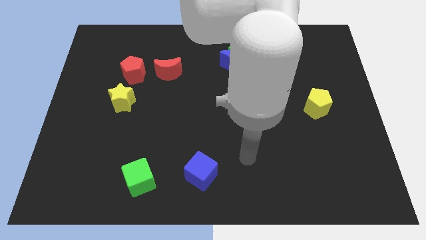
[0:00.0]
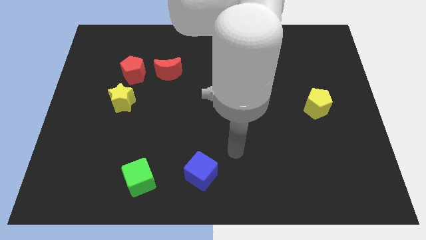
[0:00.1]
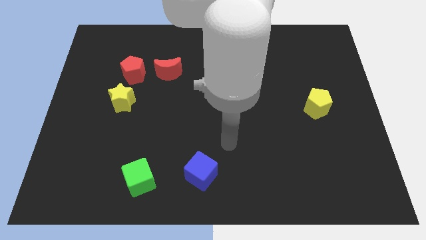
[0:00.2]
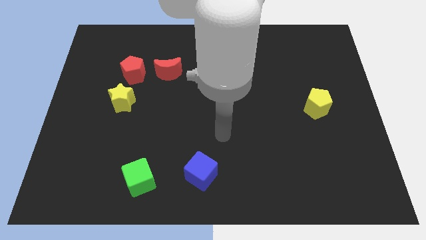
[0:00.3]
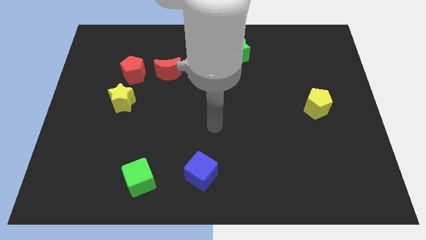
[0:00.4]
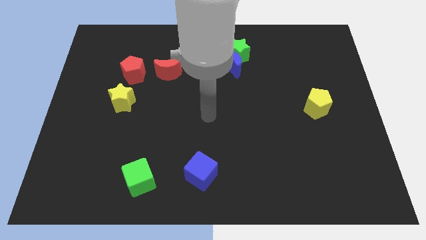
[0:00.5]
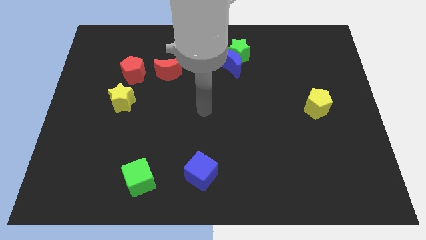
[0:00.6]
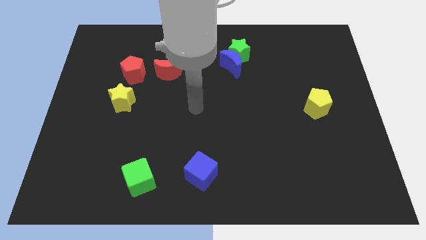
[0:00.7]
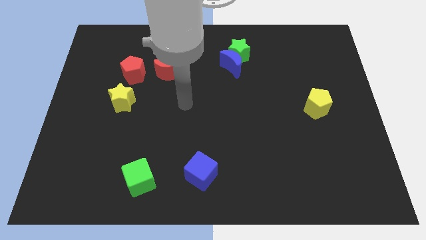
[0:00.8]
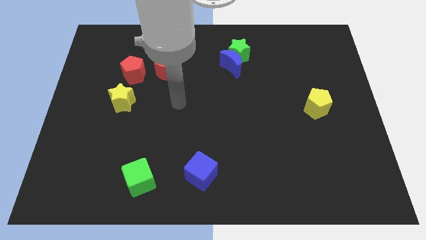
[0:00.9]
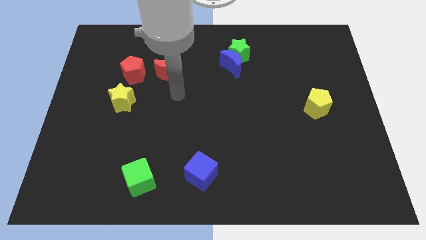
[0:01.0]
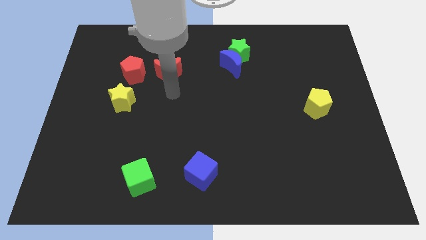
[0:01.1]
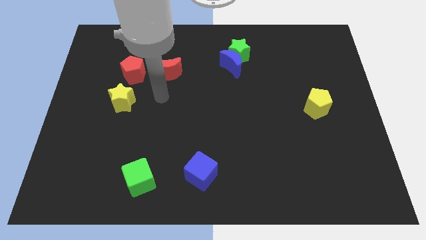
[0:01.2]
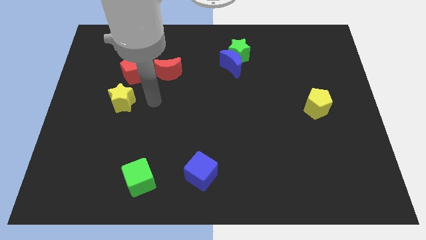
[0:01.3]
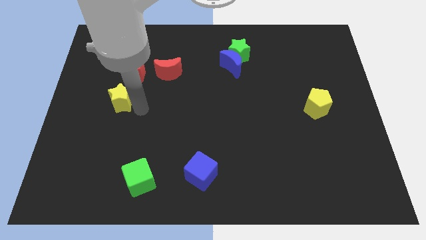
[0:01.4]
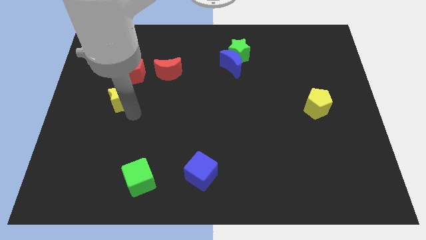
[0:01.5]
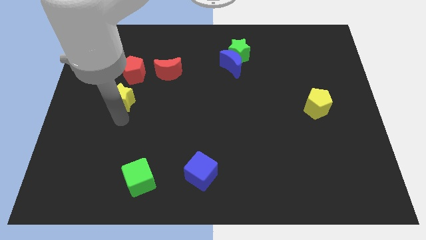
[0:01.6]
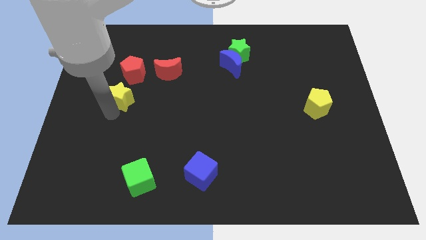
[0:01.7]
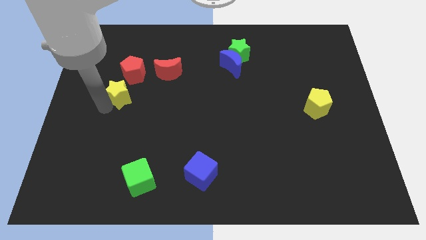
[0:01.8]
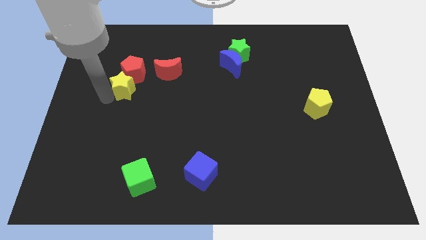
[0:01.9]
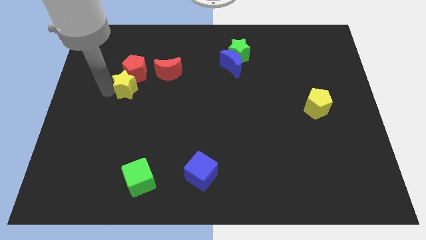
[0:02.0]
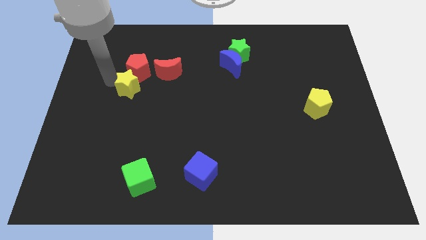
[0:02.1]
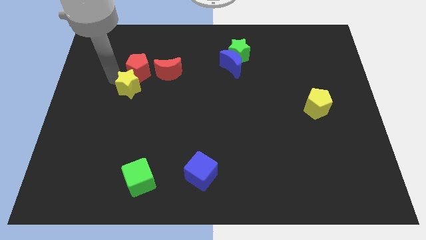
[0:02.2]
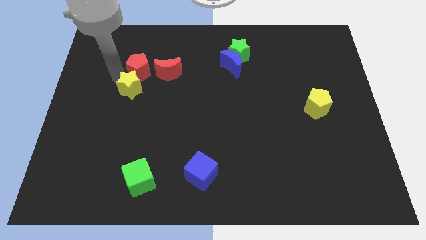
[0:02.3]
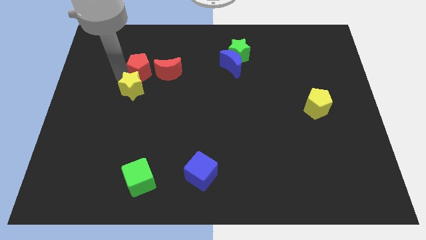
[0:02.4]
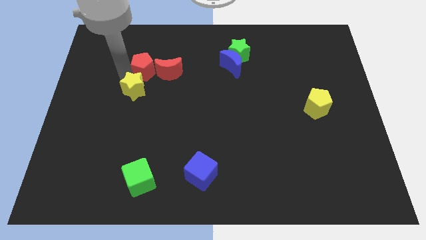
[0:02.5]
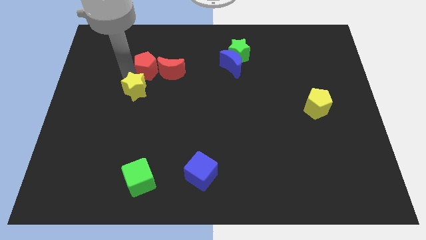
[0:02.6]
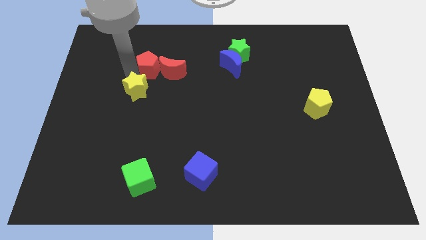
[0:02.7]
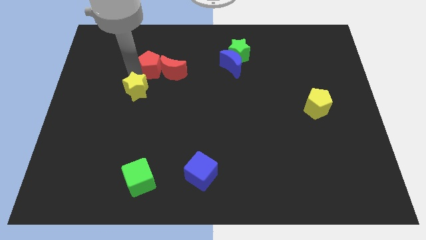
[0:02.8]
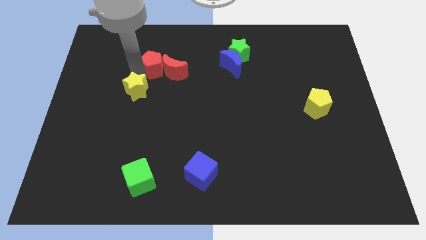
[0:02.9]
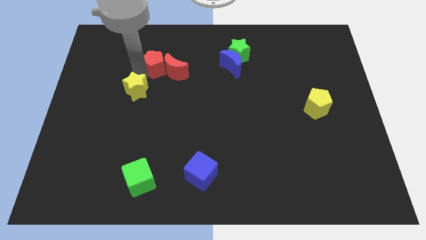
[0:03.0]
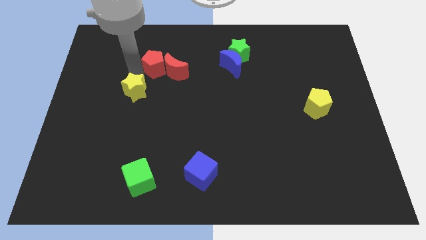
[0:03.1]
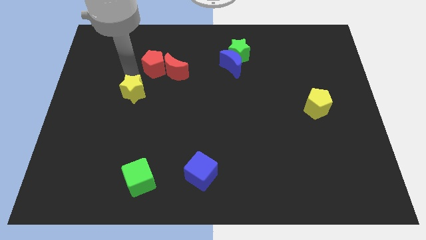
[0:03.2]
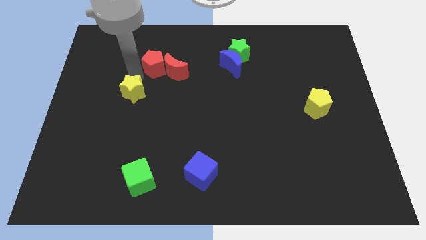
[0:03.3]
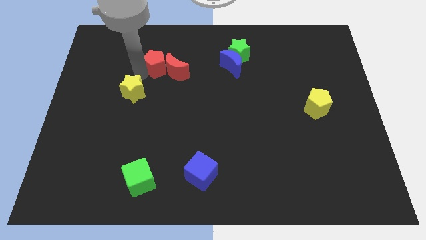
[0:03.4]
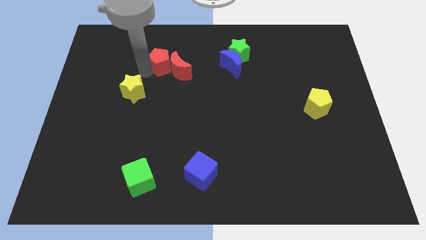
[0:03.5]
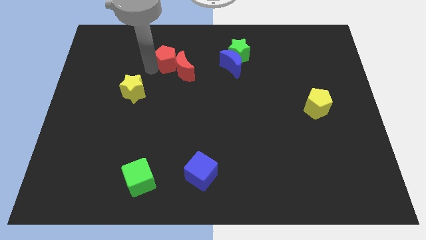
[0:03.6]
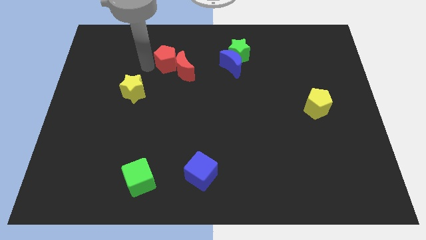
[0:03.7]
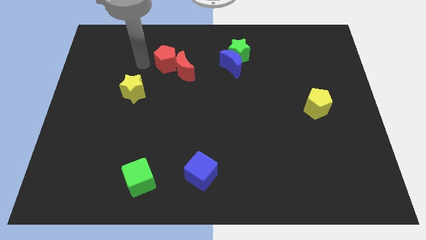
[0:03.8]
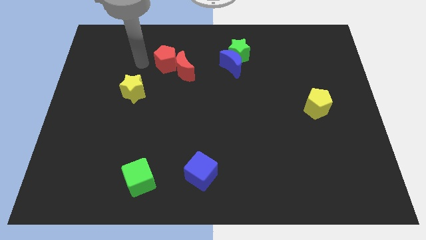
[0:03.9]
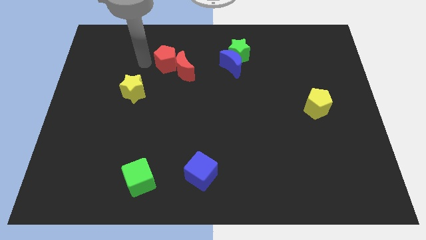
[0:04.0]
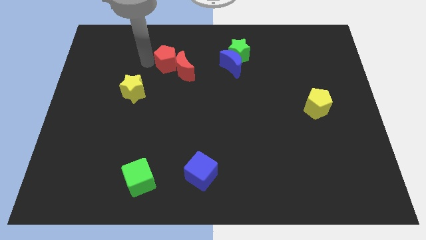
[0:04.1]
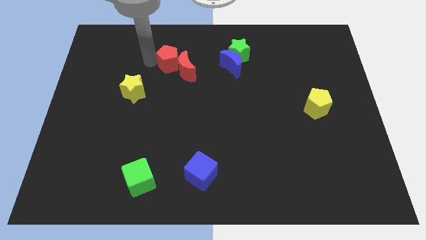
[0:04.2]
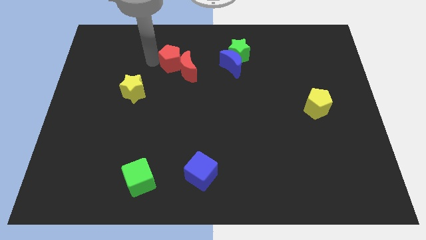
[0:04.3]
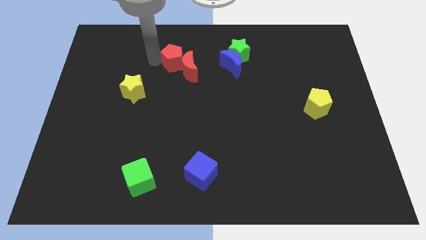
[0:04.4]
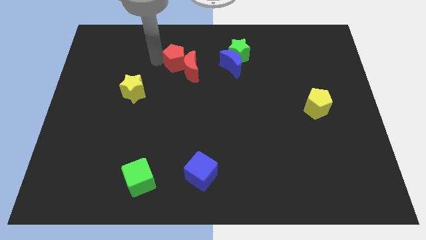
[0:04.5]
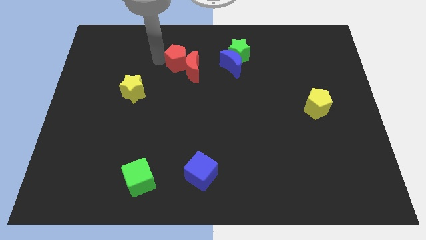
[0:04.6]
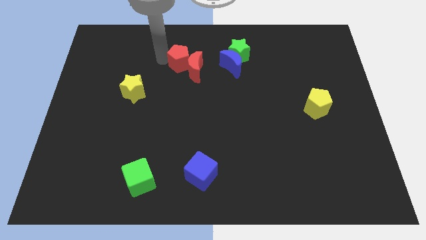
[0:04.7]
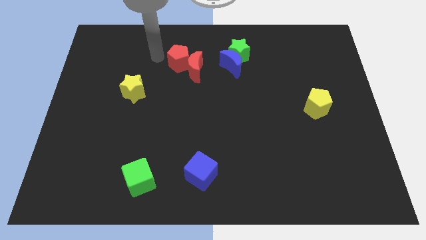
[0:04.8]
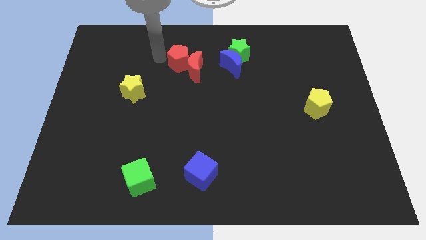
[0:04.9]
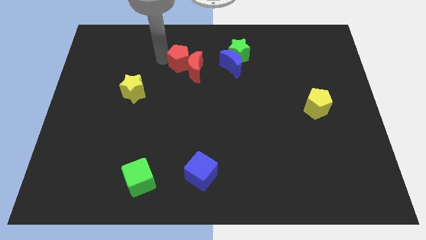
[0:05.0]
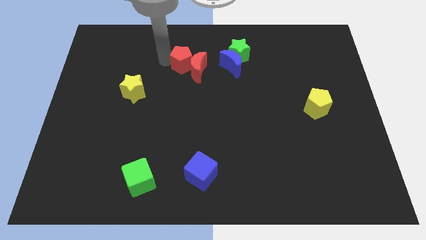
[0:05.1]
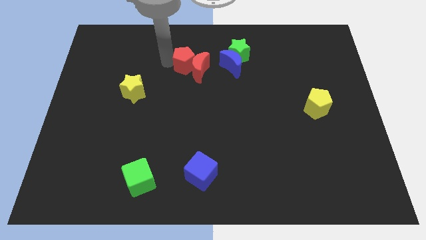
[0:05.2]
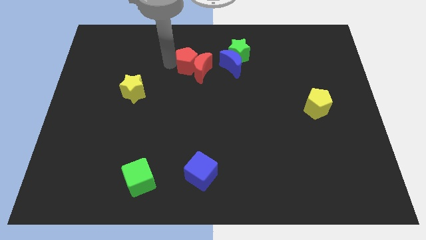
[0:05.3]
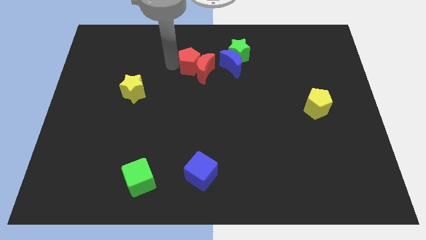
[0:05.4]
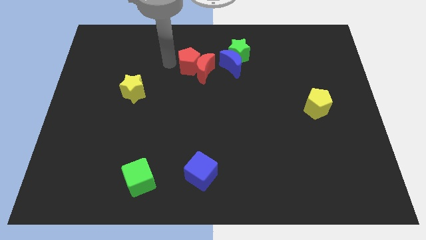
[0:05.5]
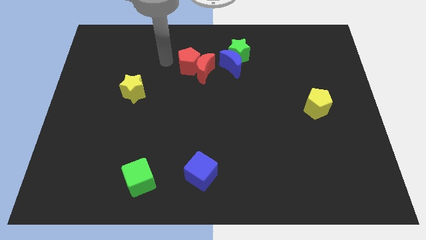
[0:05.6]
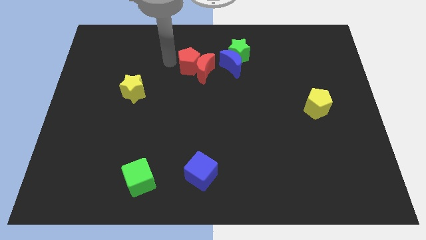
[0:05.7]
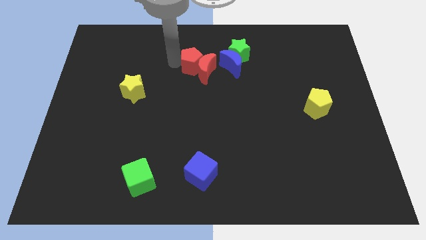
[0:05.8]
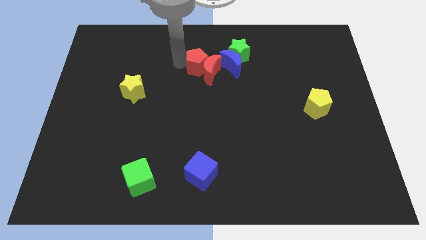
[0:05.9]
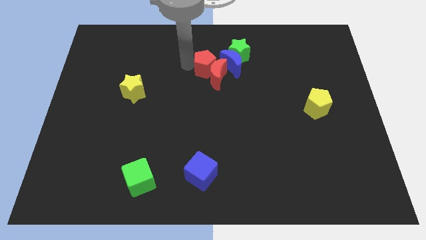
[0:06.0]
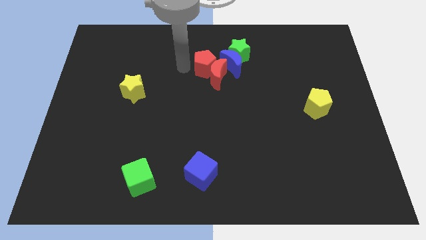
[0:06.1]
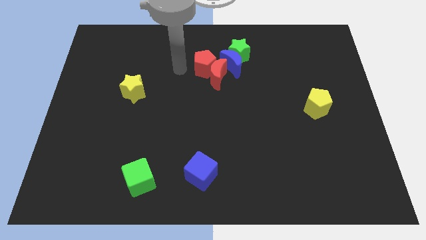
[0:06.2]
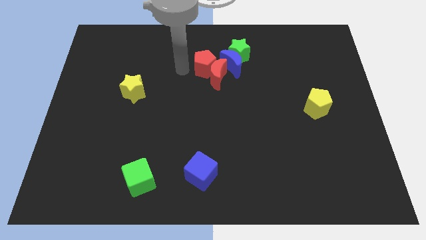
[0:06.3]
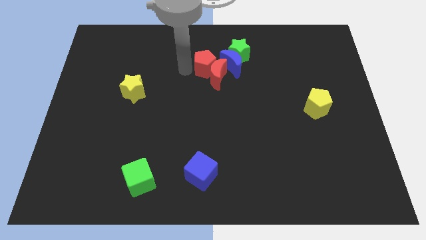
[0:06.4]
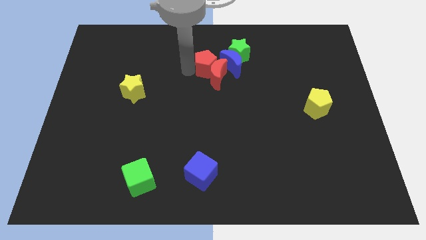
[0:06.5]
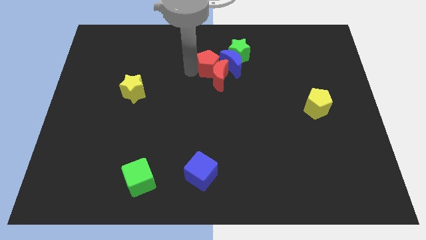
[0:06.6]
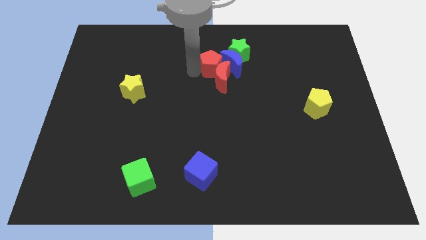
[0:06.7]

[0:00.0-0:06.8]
move the red pentagon next to the blue moon
